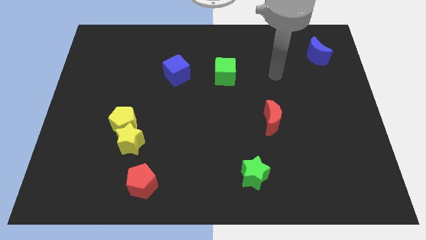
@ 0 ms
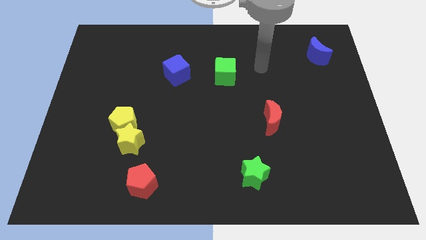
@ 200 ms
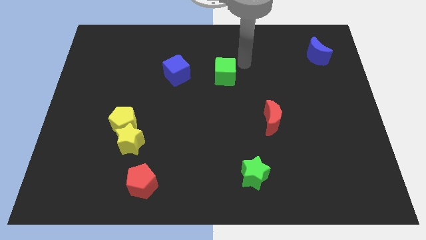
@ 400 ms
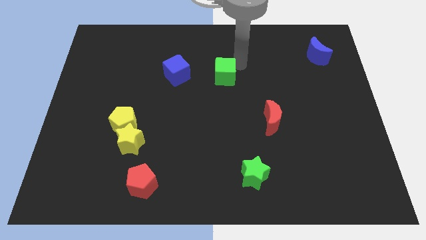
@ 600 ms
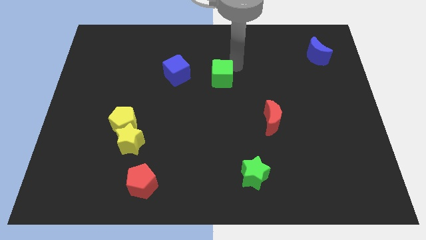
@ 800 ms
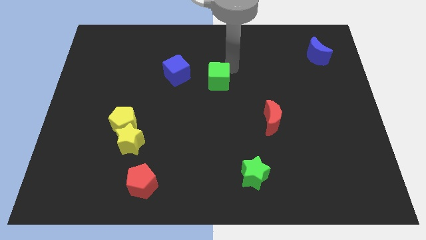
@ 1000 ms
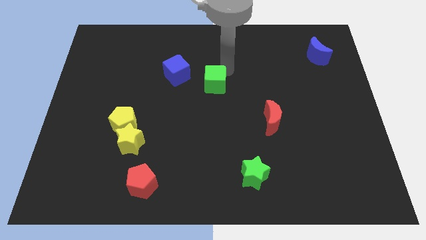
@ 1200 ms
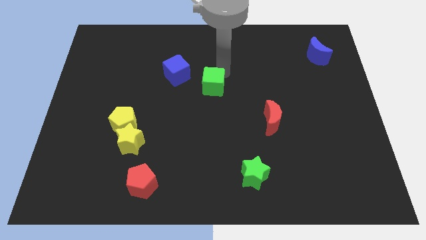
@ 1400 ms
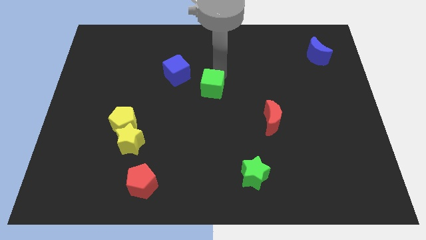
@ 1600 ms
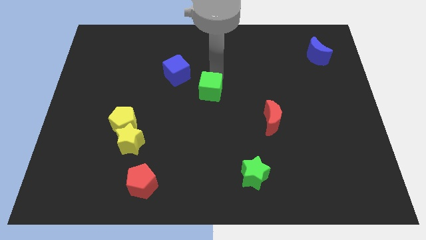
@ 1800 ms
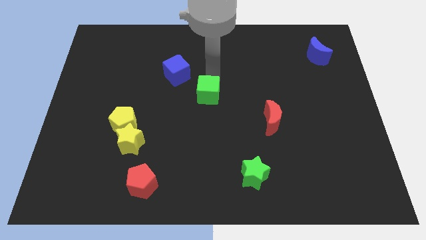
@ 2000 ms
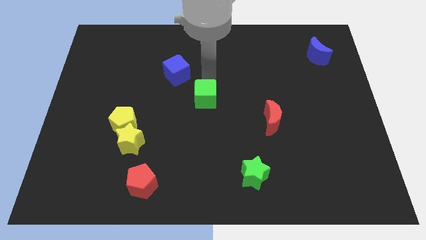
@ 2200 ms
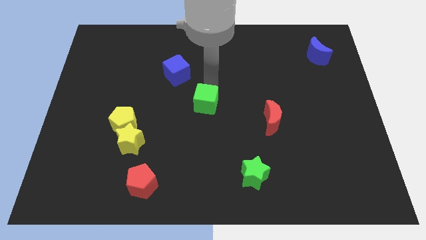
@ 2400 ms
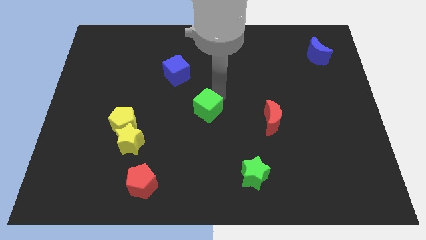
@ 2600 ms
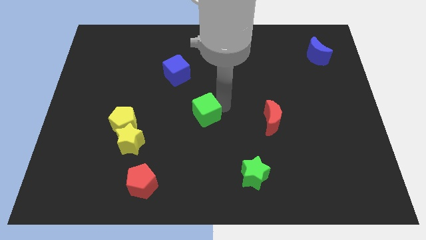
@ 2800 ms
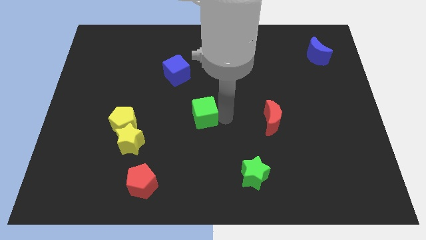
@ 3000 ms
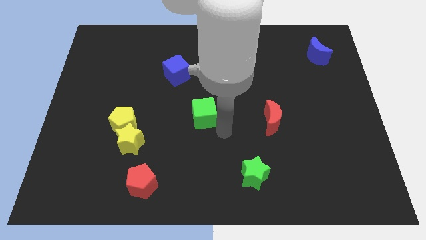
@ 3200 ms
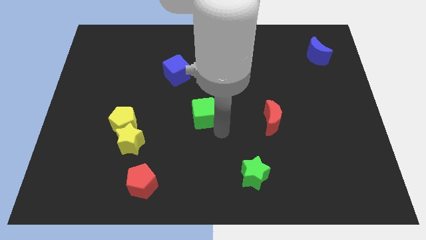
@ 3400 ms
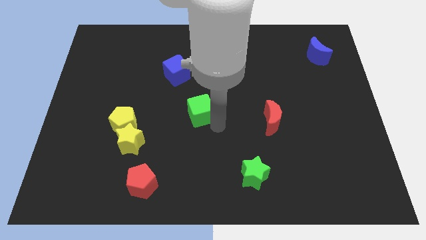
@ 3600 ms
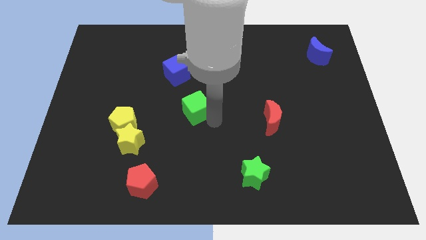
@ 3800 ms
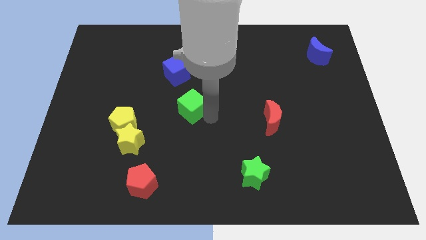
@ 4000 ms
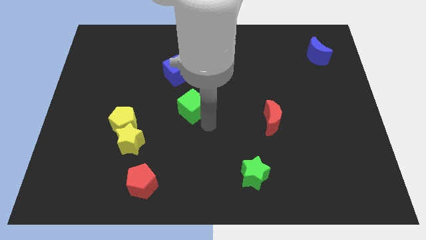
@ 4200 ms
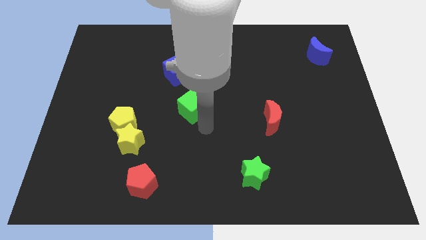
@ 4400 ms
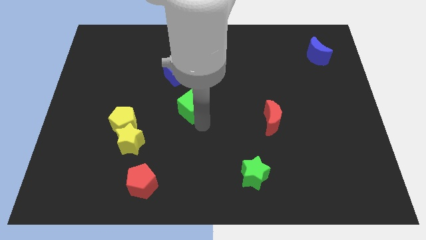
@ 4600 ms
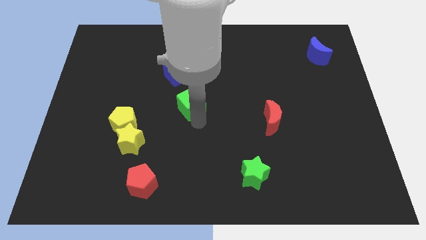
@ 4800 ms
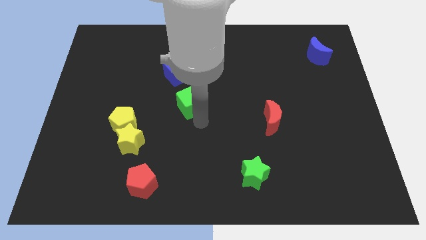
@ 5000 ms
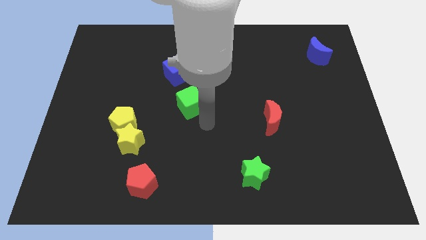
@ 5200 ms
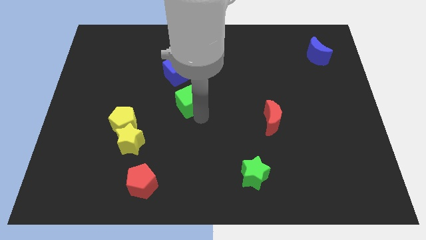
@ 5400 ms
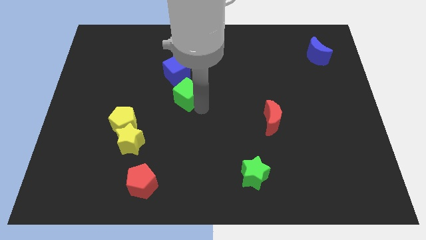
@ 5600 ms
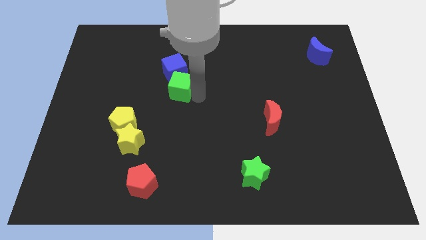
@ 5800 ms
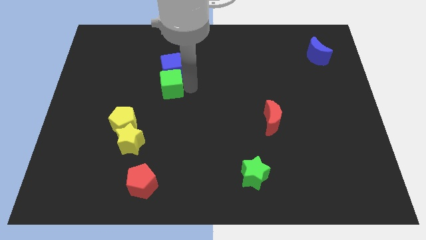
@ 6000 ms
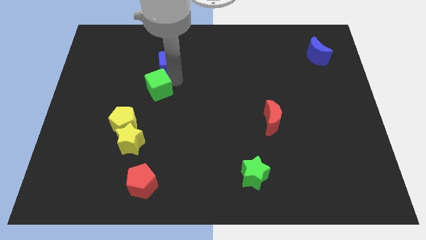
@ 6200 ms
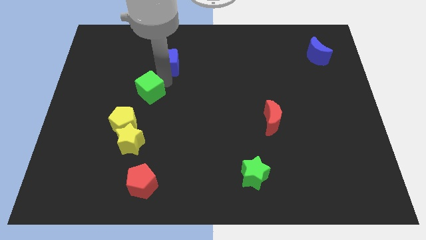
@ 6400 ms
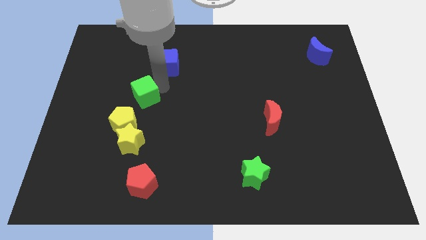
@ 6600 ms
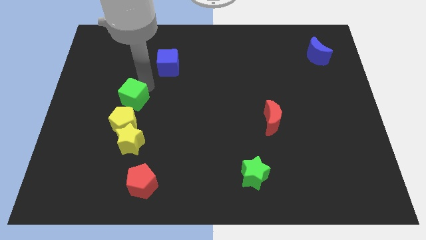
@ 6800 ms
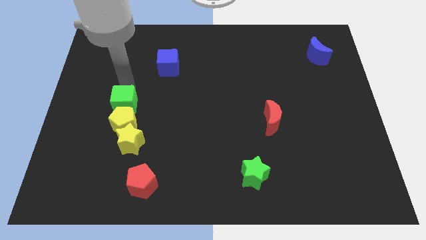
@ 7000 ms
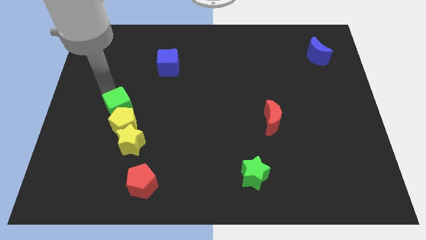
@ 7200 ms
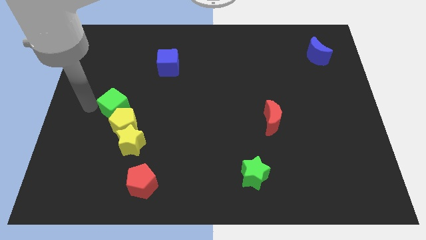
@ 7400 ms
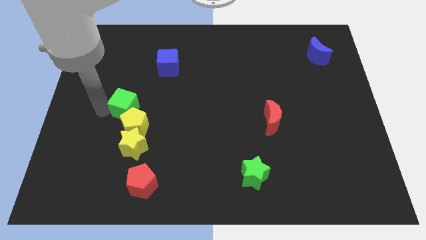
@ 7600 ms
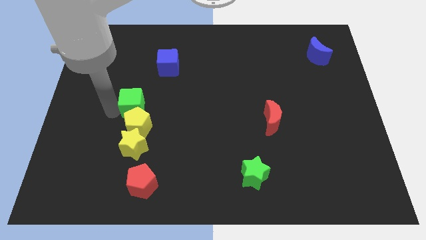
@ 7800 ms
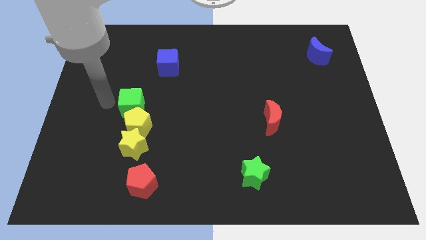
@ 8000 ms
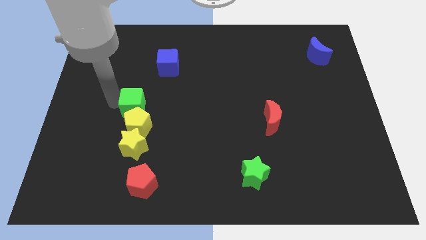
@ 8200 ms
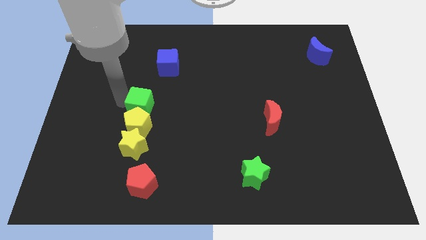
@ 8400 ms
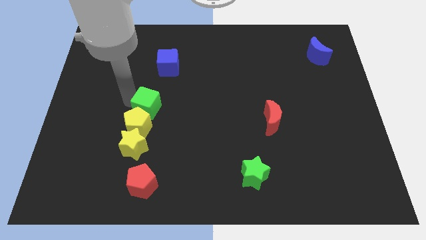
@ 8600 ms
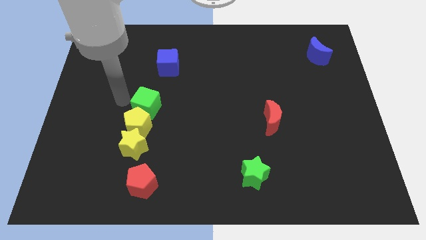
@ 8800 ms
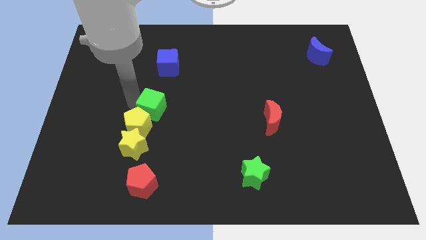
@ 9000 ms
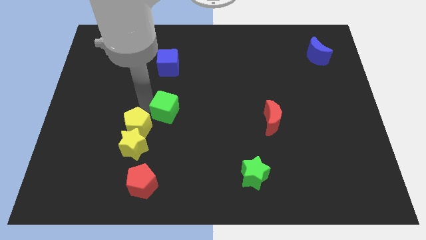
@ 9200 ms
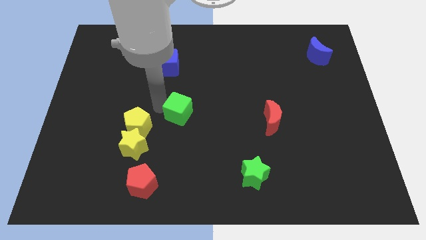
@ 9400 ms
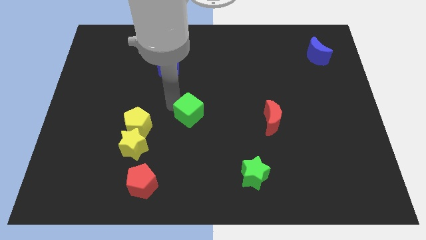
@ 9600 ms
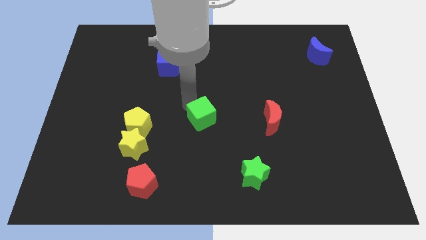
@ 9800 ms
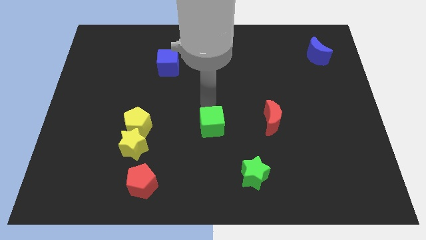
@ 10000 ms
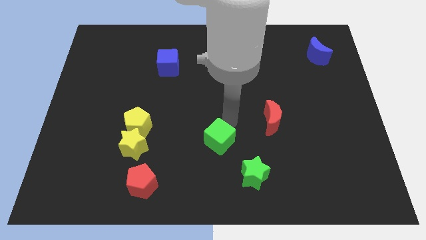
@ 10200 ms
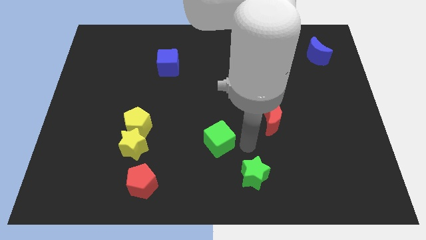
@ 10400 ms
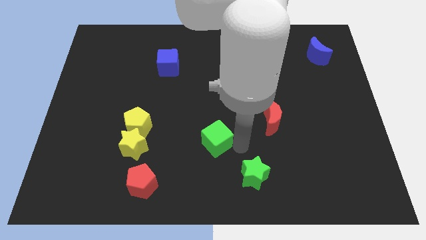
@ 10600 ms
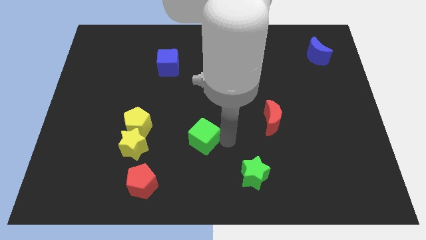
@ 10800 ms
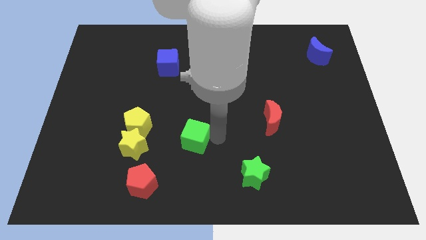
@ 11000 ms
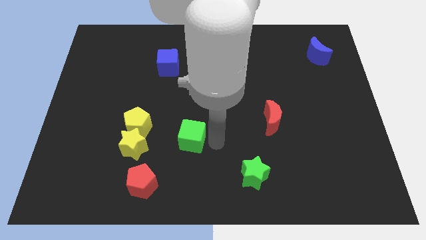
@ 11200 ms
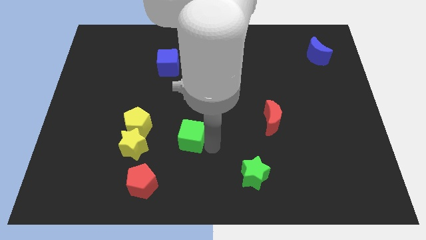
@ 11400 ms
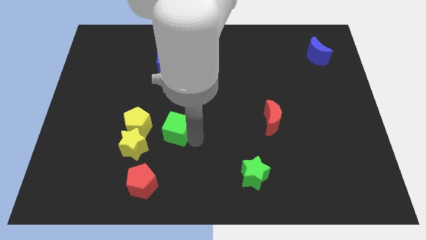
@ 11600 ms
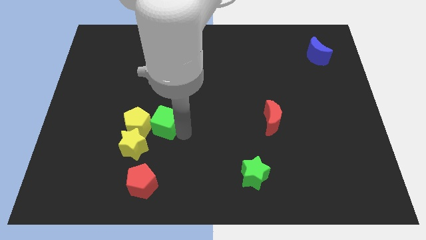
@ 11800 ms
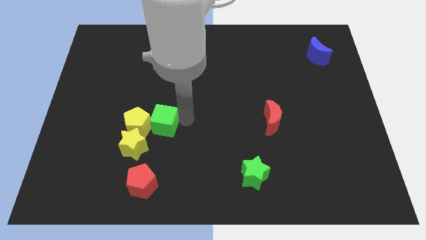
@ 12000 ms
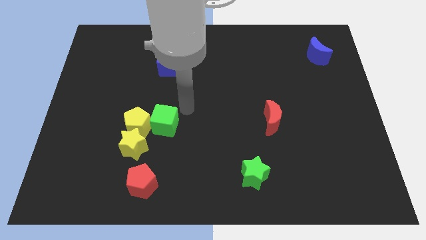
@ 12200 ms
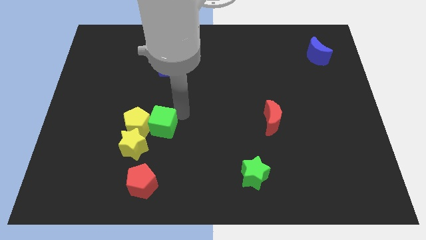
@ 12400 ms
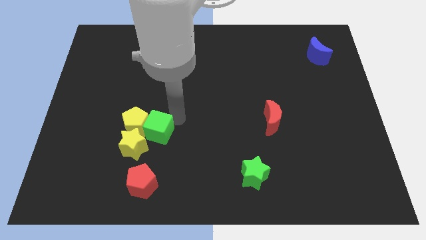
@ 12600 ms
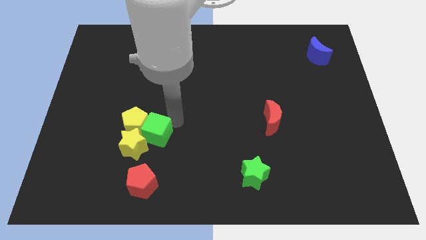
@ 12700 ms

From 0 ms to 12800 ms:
push the green cube to the yellow star

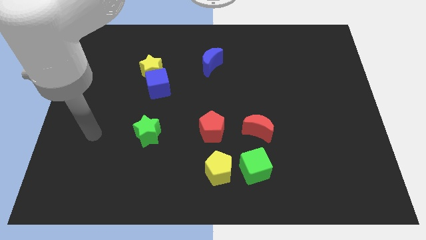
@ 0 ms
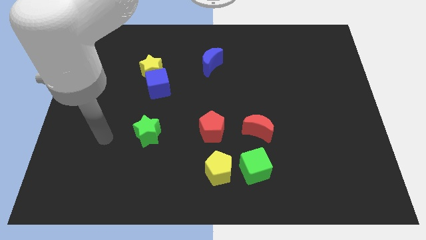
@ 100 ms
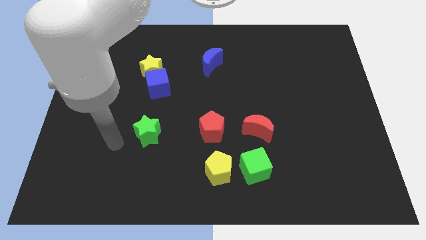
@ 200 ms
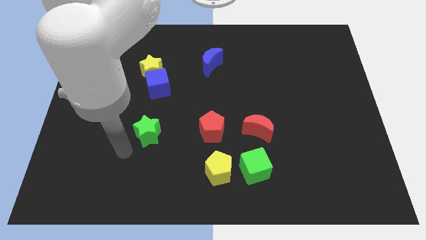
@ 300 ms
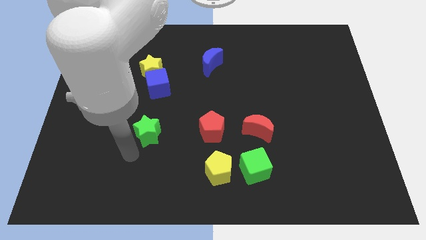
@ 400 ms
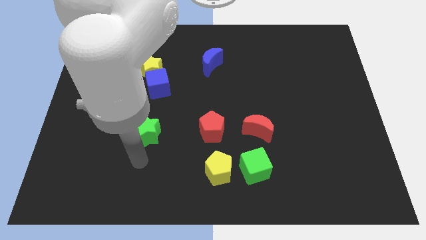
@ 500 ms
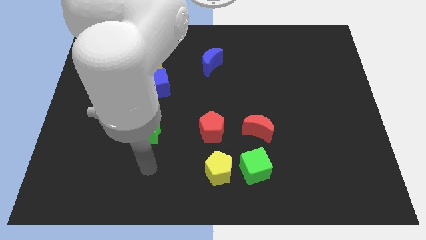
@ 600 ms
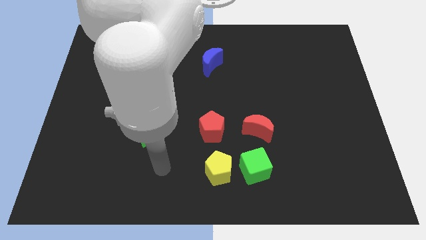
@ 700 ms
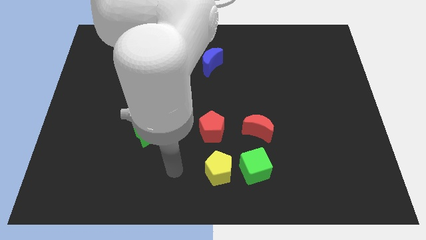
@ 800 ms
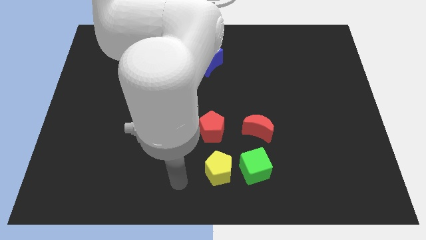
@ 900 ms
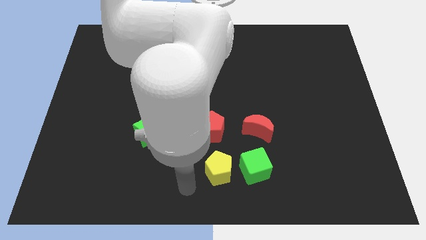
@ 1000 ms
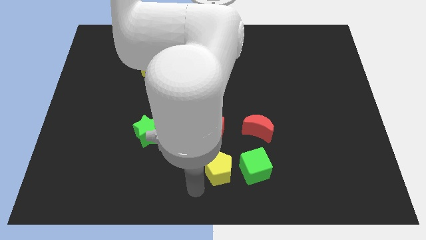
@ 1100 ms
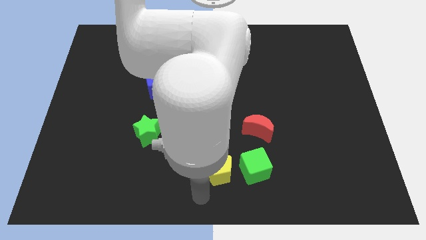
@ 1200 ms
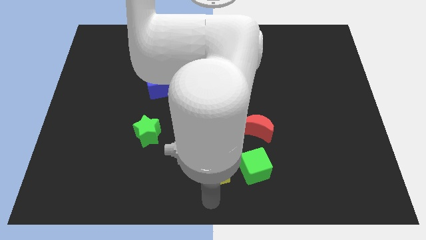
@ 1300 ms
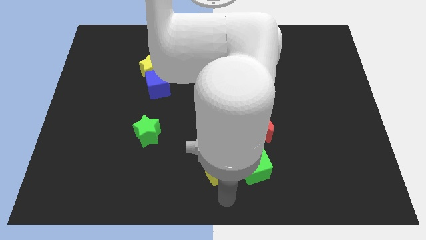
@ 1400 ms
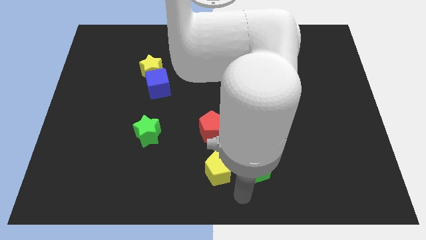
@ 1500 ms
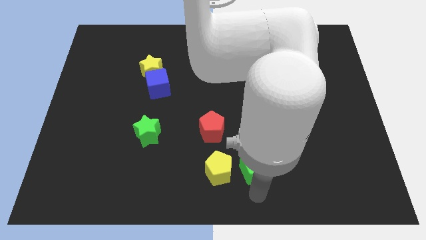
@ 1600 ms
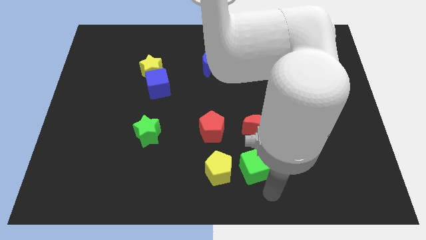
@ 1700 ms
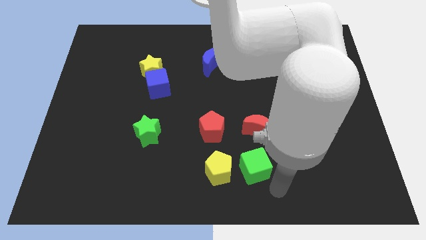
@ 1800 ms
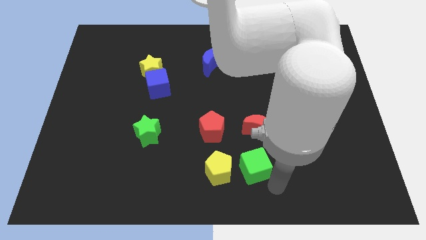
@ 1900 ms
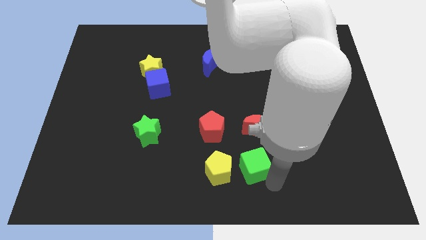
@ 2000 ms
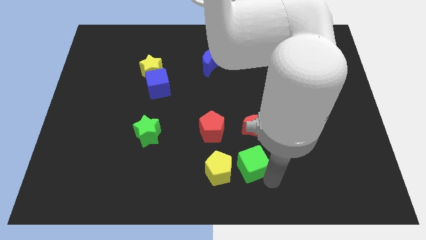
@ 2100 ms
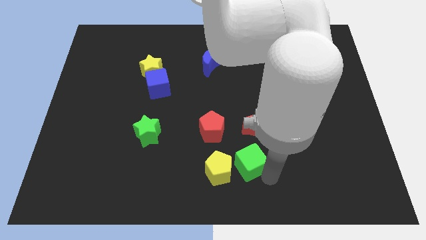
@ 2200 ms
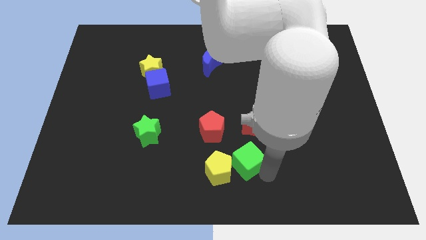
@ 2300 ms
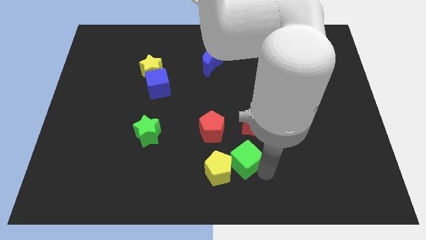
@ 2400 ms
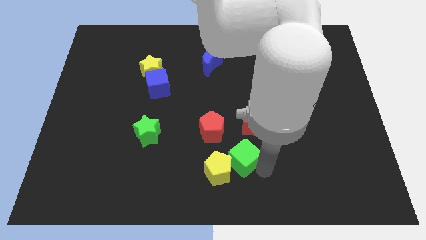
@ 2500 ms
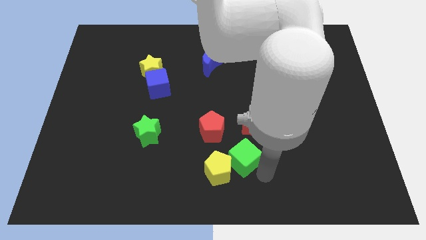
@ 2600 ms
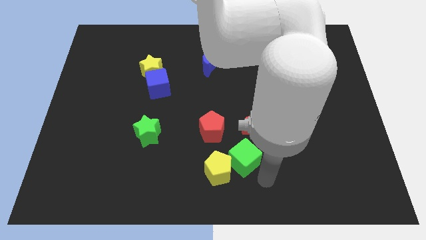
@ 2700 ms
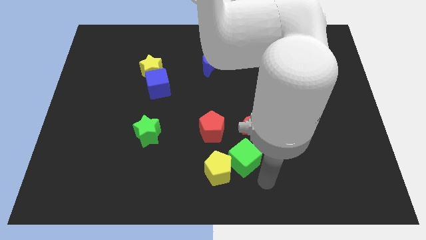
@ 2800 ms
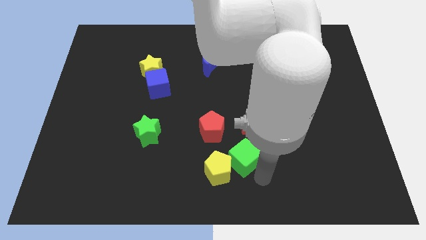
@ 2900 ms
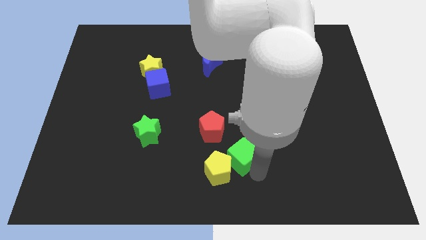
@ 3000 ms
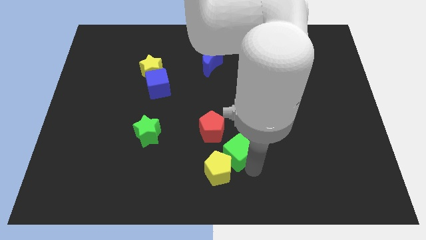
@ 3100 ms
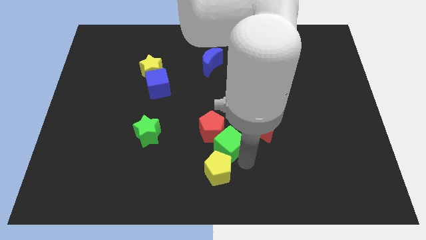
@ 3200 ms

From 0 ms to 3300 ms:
move the green cube close to the red pentagon
